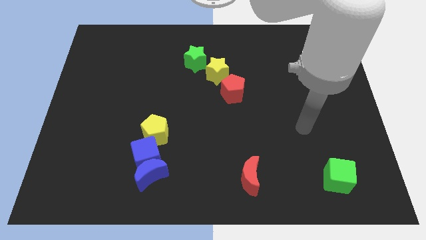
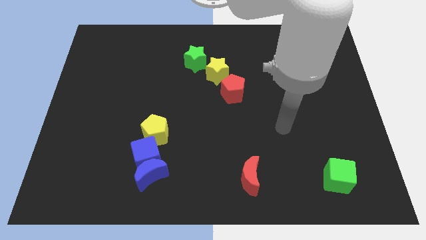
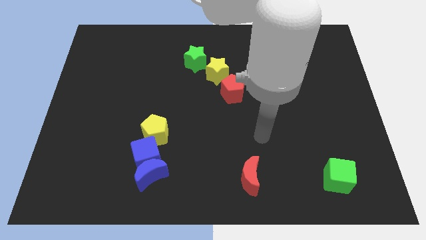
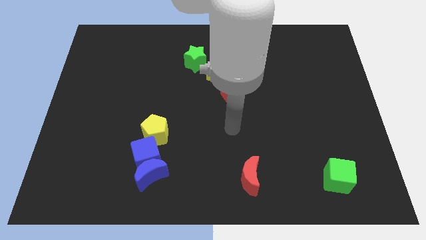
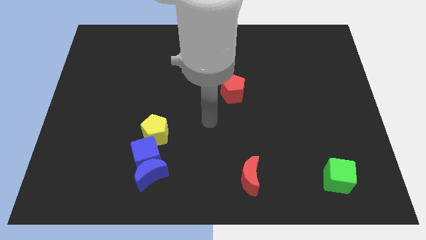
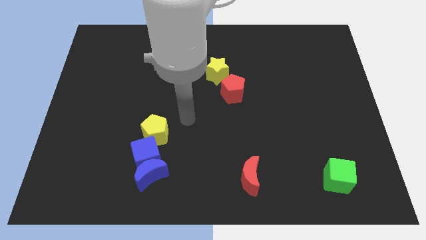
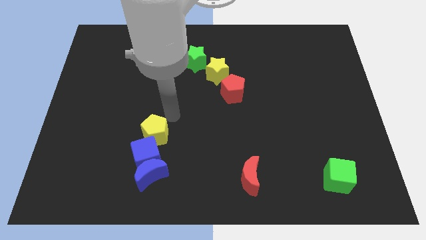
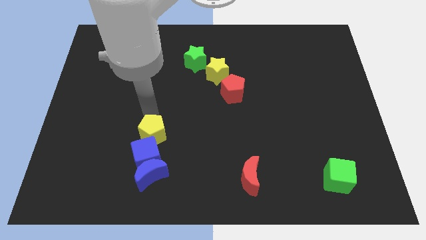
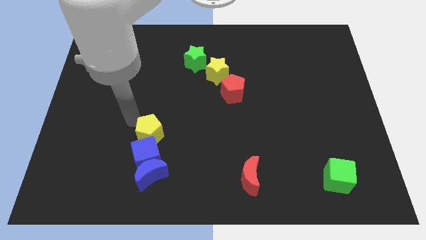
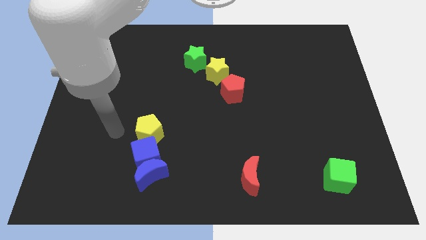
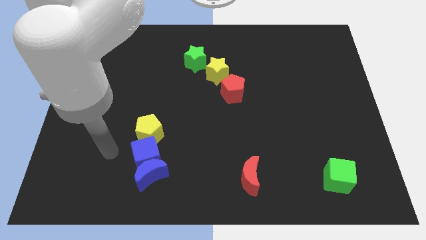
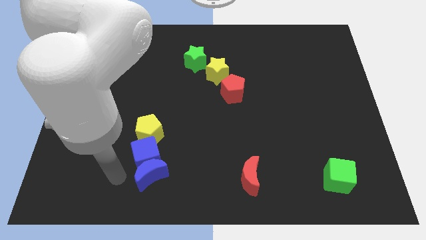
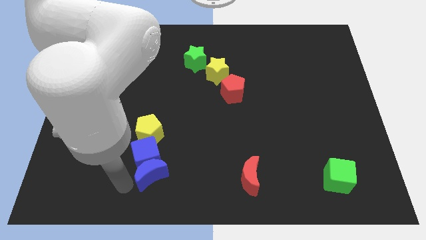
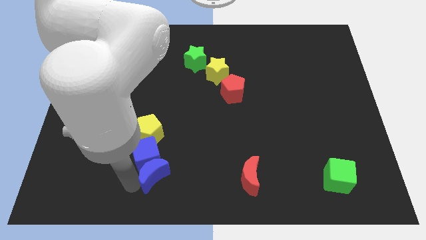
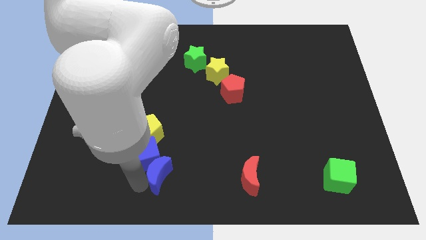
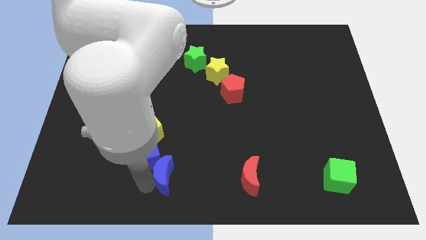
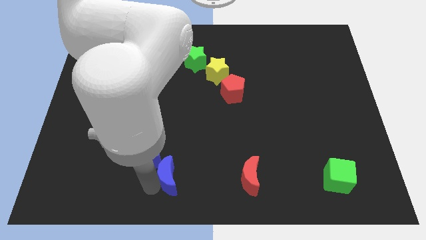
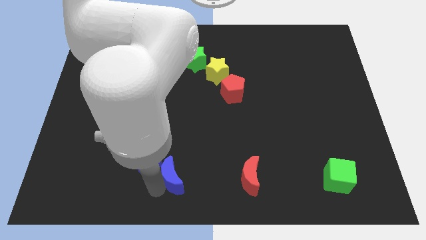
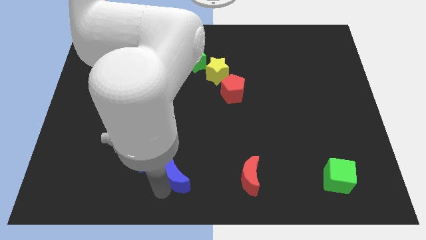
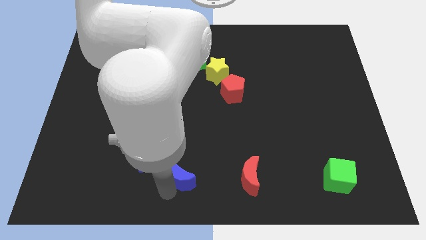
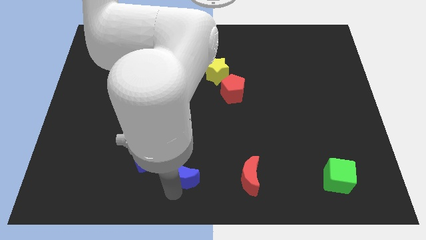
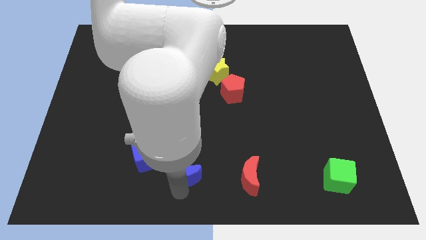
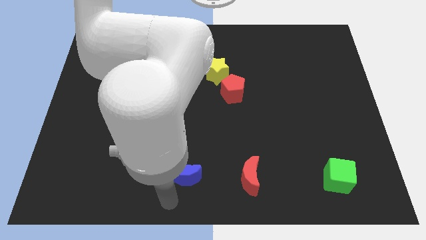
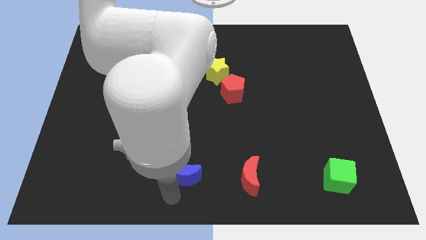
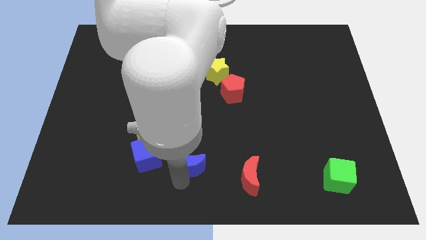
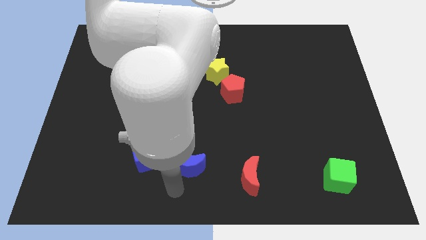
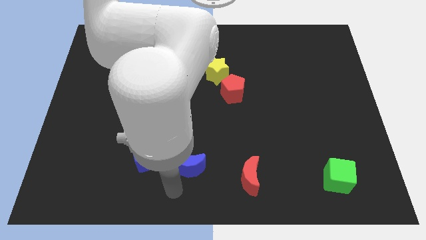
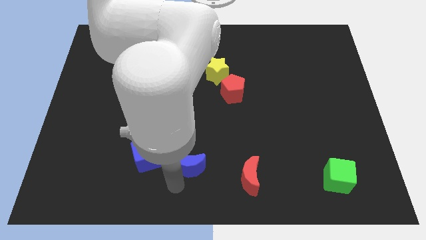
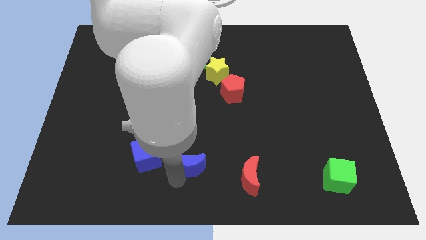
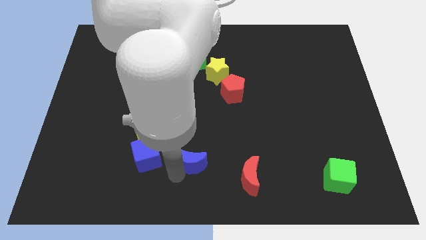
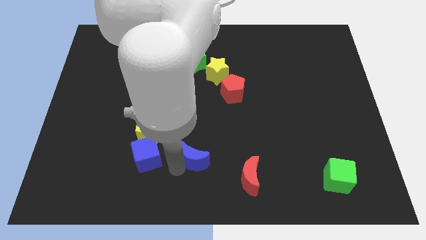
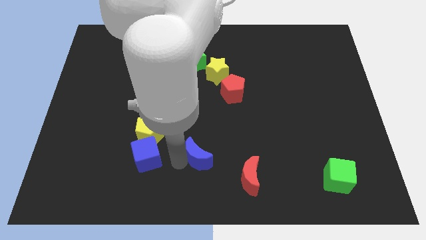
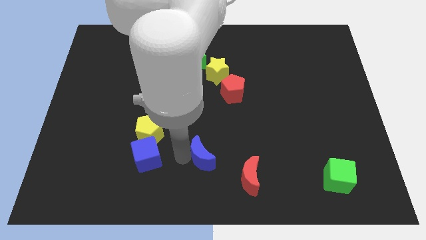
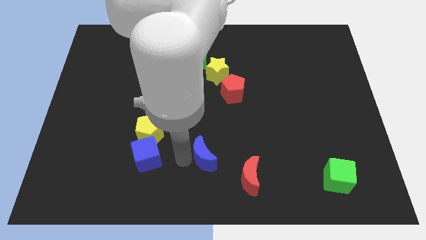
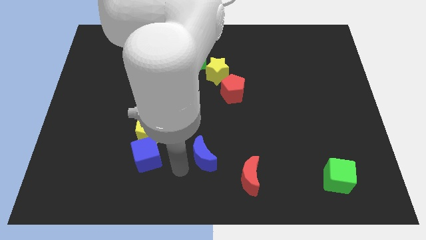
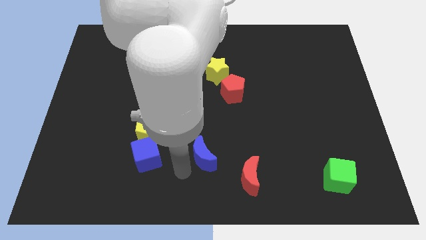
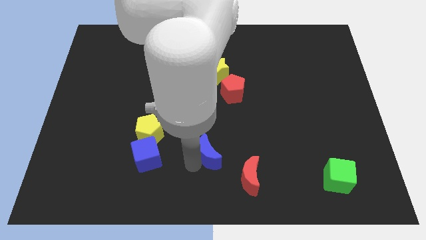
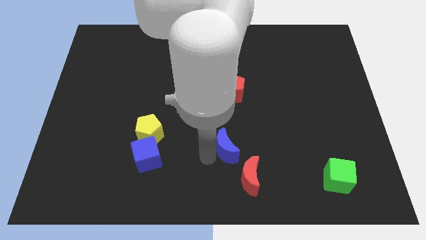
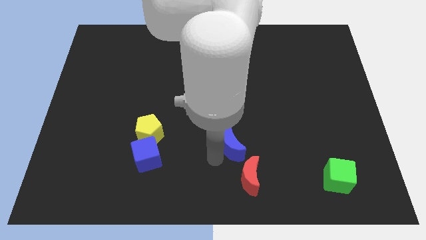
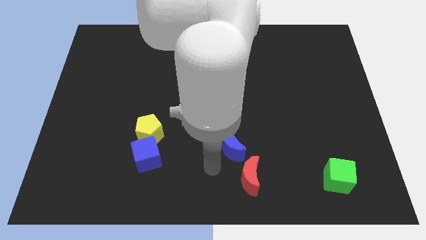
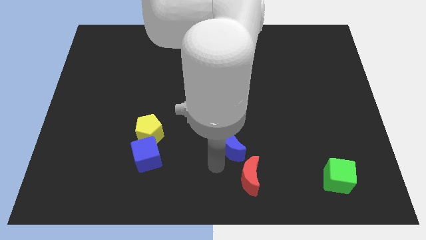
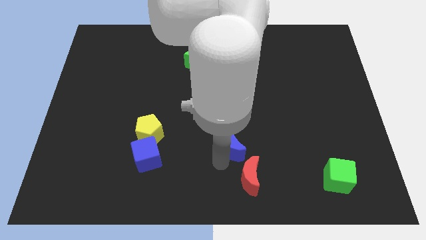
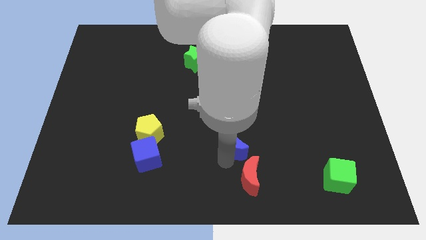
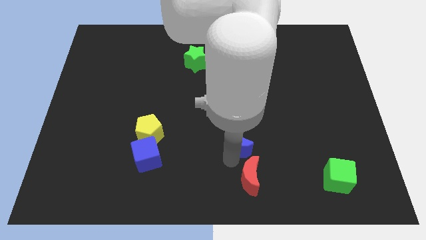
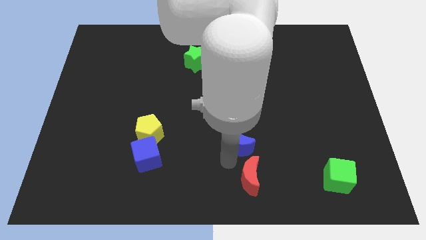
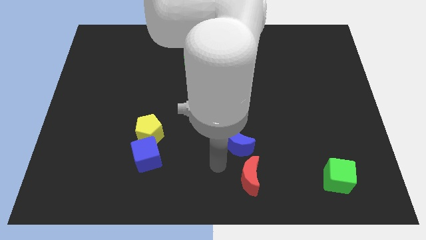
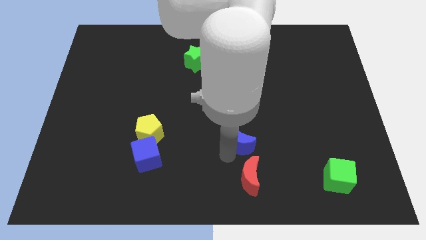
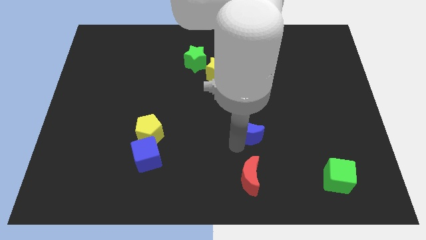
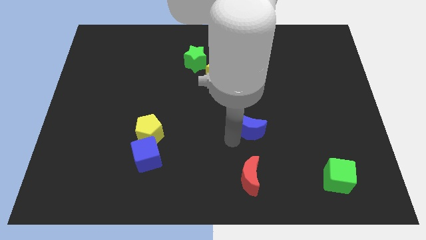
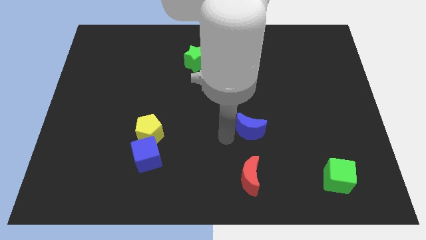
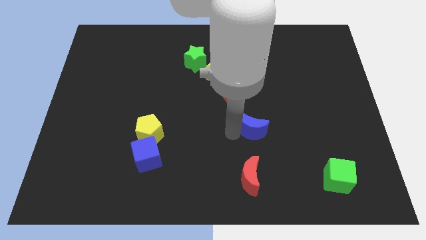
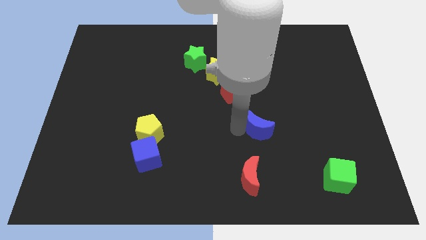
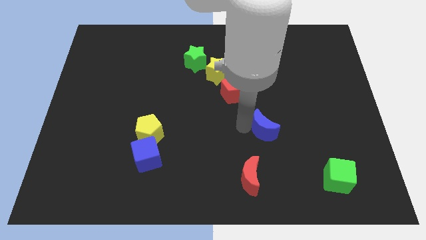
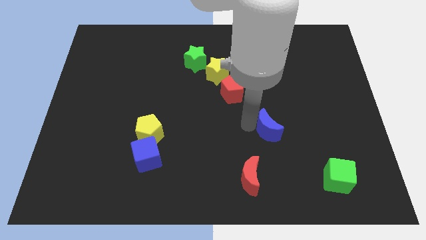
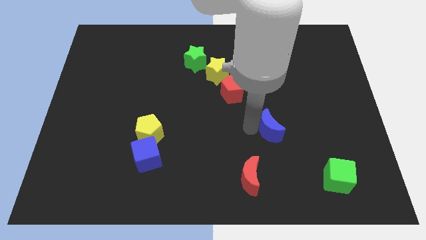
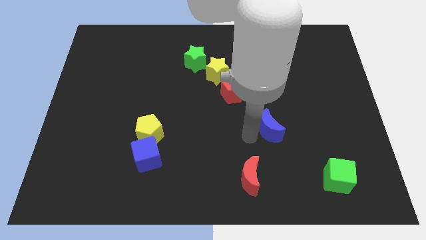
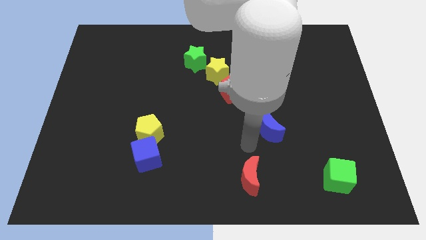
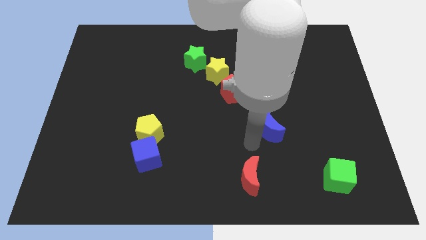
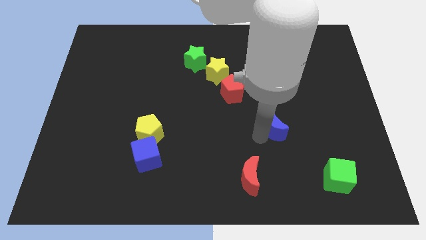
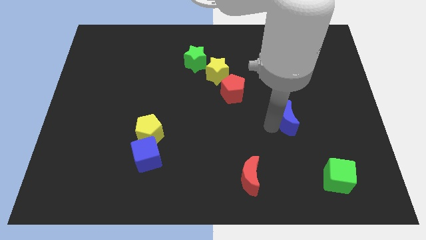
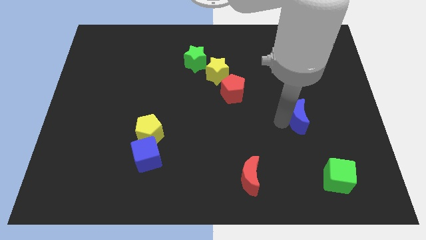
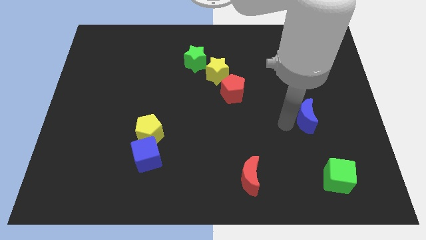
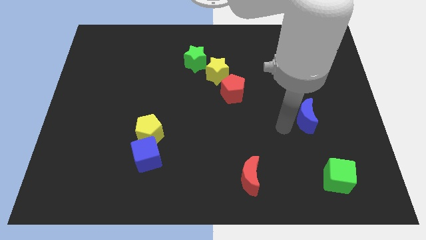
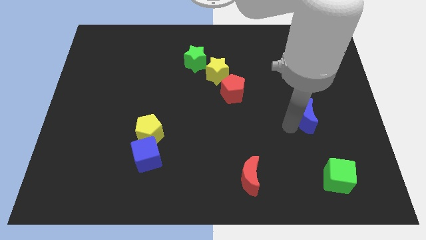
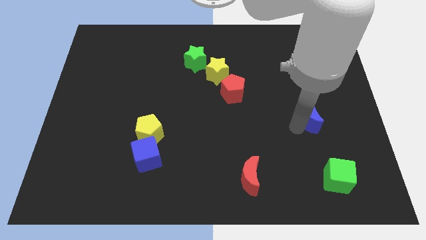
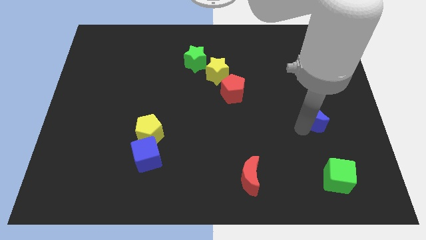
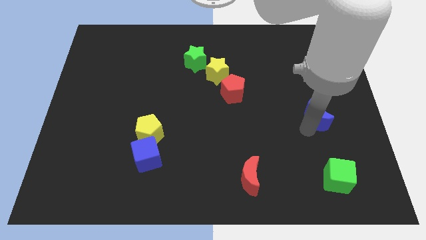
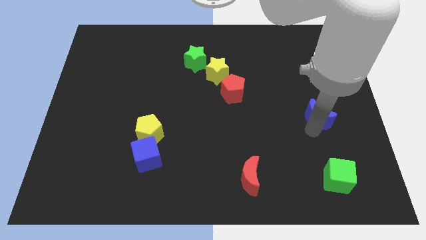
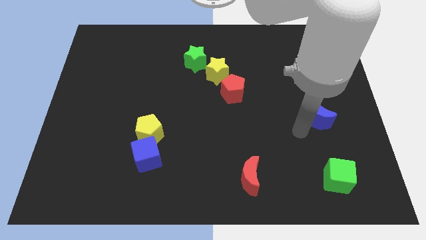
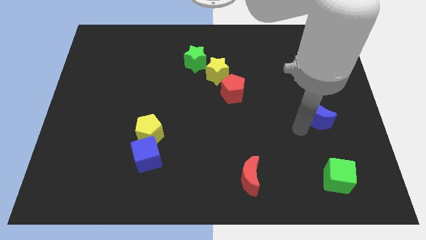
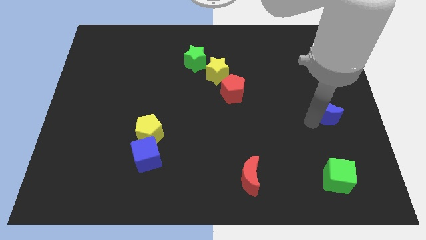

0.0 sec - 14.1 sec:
push the blue moon to the right side of the board
